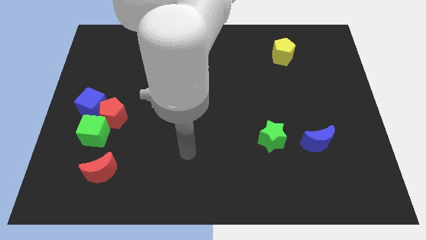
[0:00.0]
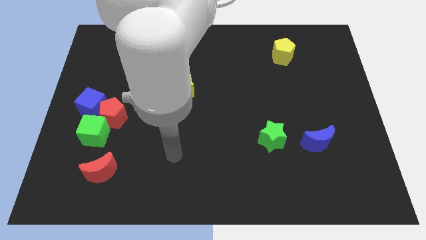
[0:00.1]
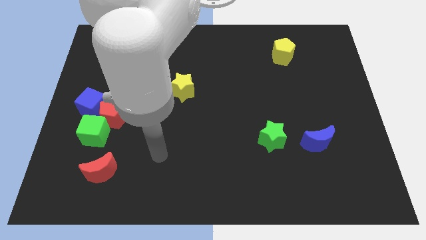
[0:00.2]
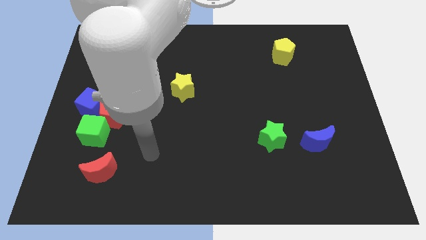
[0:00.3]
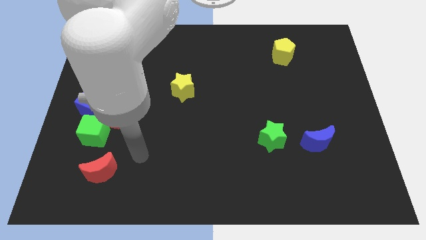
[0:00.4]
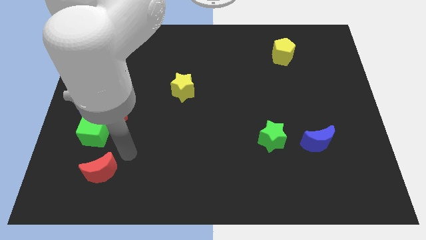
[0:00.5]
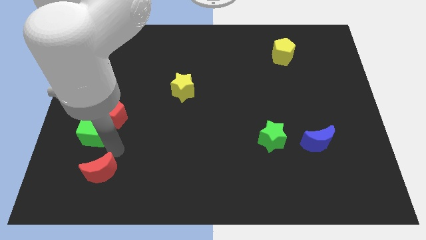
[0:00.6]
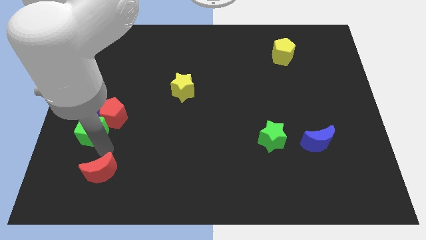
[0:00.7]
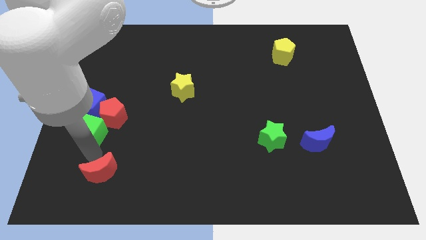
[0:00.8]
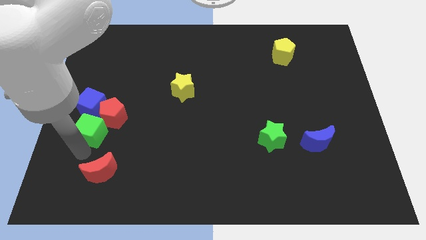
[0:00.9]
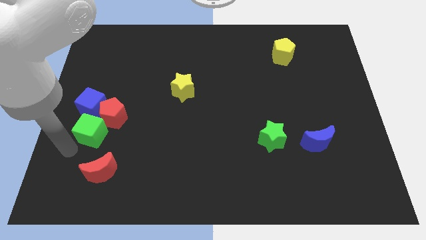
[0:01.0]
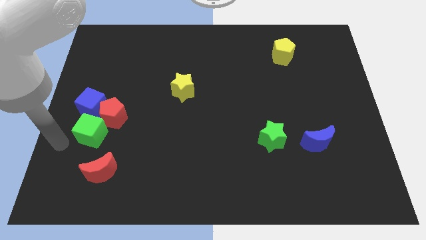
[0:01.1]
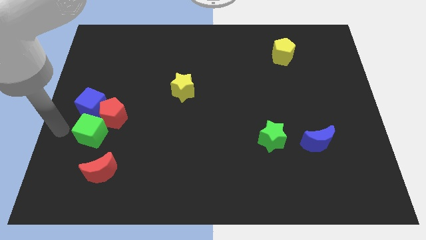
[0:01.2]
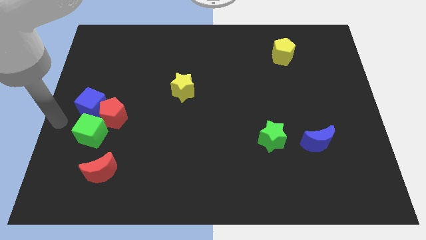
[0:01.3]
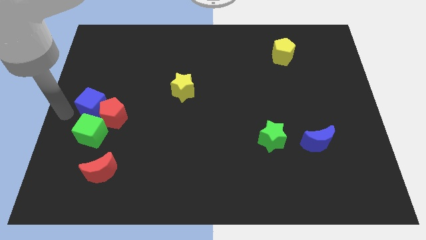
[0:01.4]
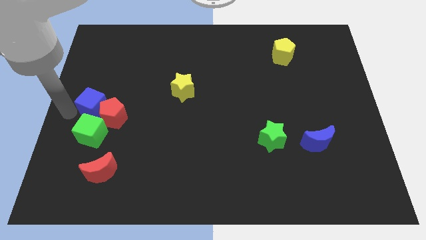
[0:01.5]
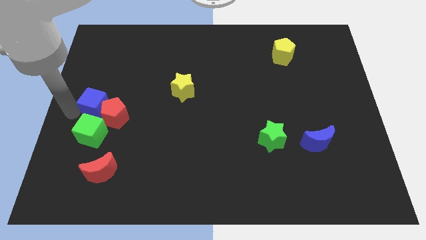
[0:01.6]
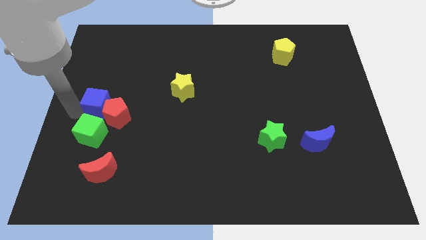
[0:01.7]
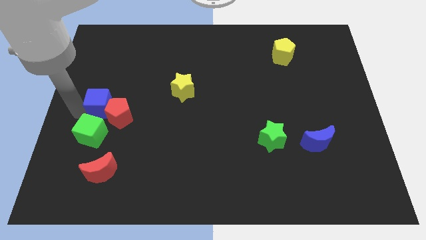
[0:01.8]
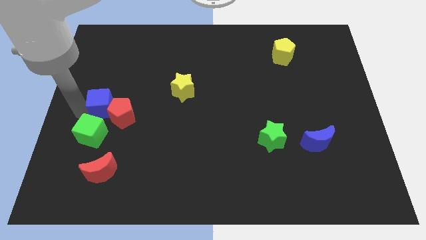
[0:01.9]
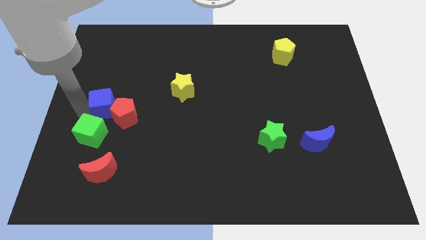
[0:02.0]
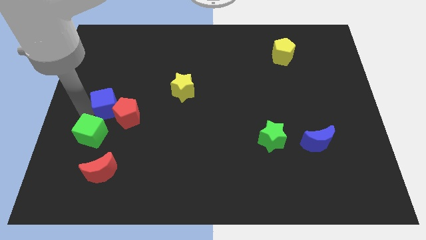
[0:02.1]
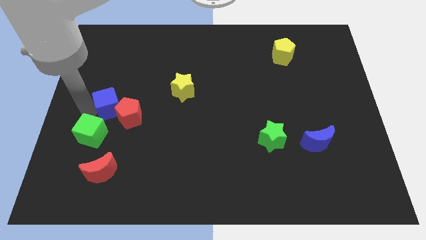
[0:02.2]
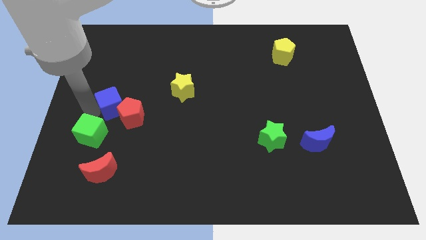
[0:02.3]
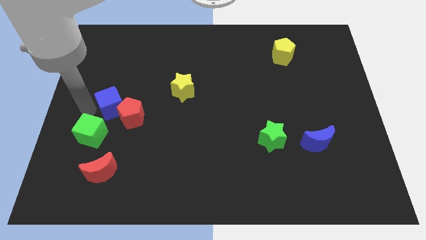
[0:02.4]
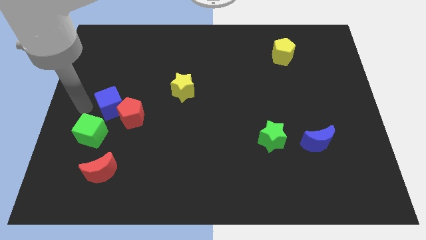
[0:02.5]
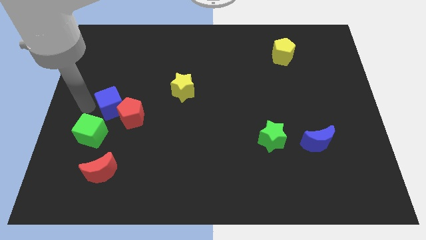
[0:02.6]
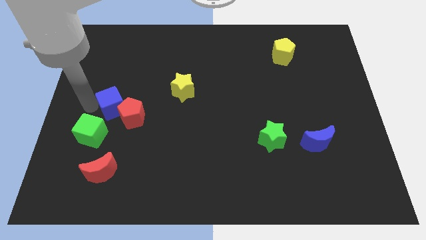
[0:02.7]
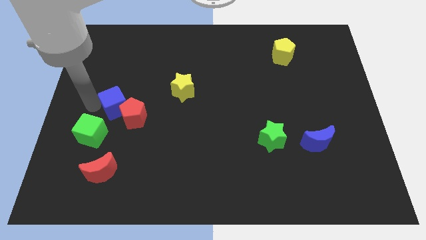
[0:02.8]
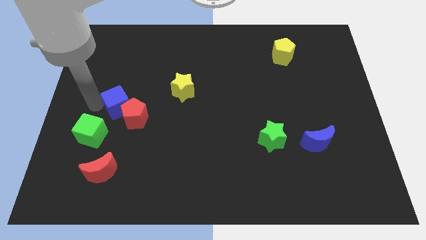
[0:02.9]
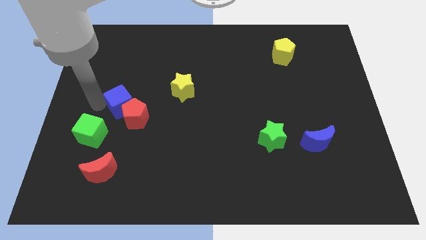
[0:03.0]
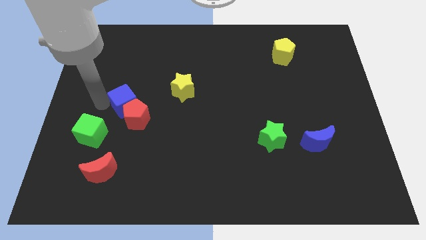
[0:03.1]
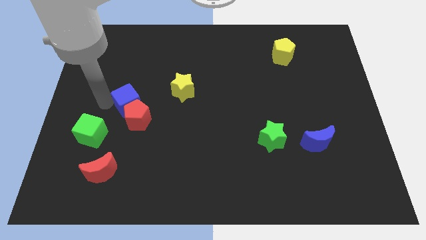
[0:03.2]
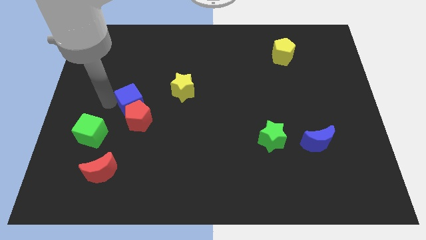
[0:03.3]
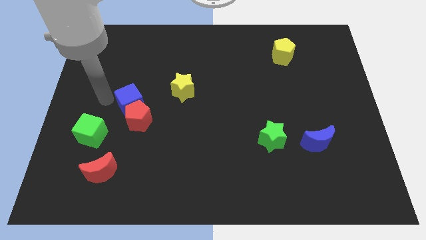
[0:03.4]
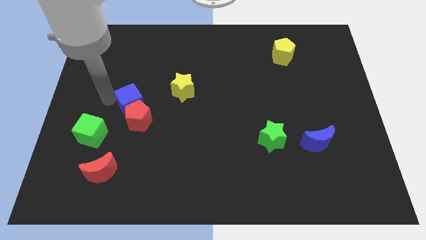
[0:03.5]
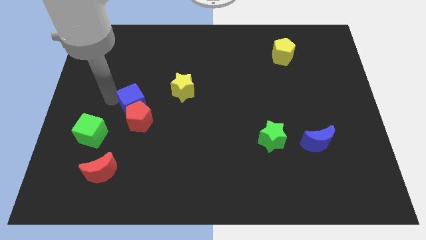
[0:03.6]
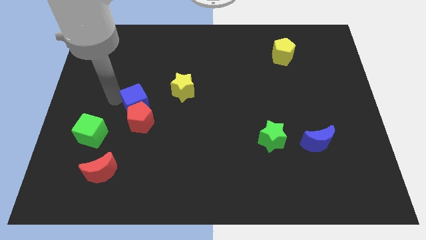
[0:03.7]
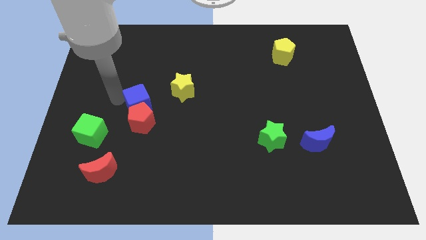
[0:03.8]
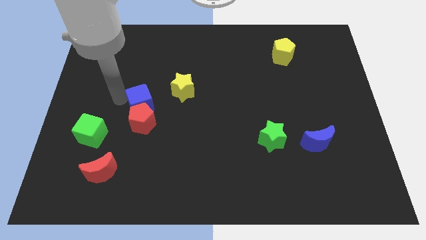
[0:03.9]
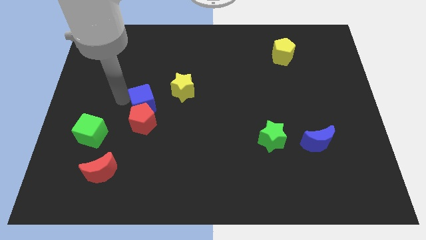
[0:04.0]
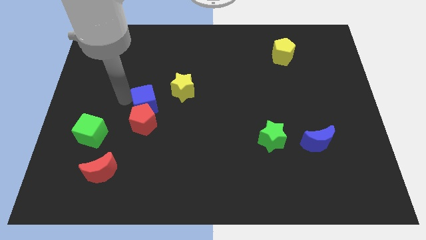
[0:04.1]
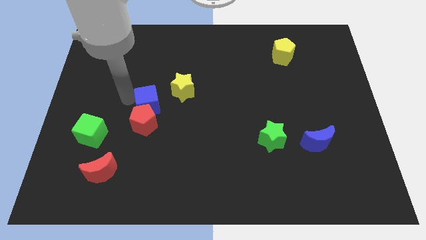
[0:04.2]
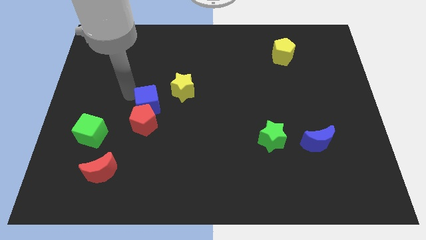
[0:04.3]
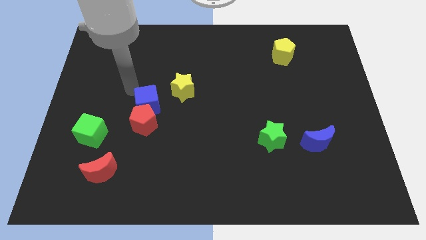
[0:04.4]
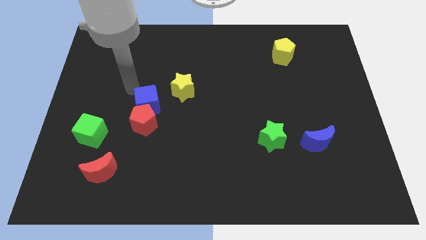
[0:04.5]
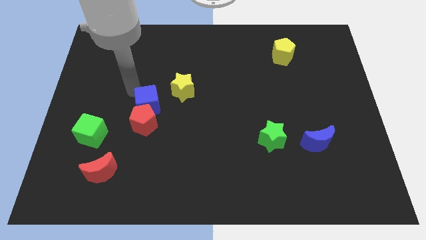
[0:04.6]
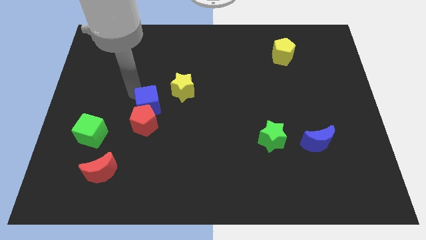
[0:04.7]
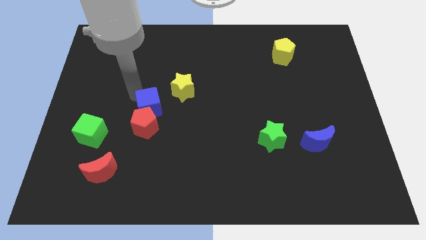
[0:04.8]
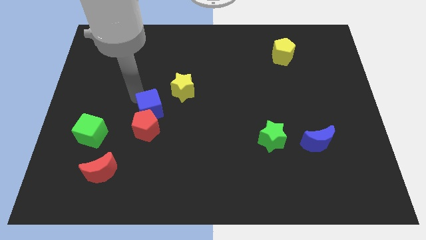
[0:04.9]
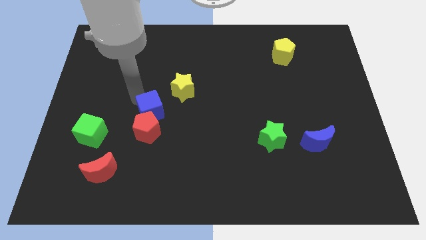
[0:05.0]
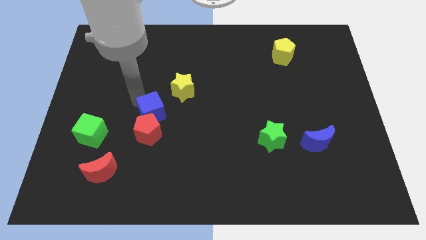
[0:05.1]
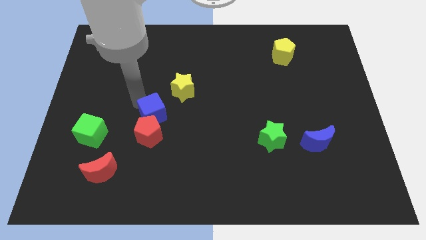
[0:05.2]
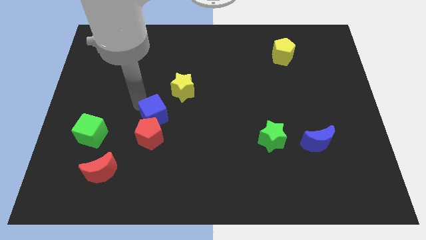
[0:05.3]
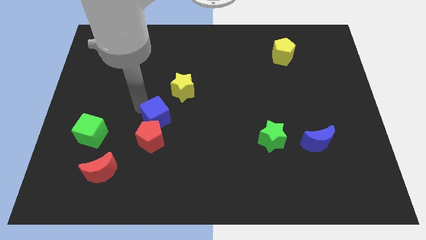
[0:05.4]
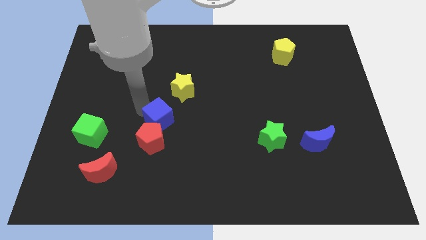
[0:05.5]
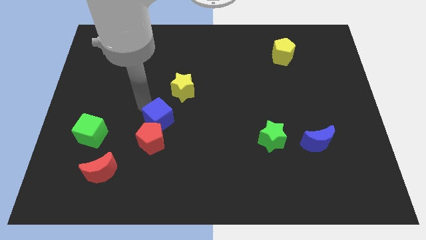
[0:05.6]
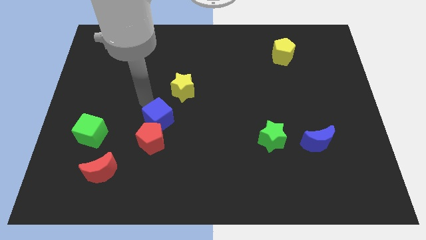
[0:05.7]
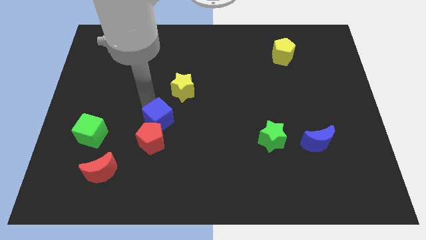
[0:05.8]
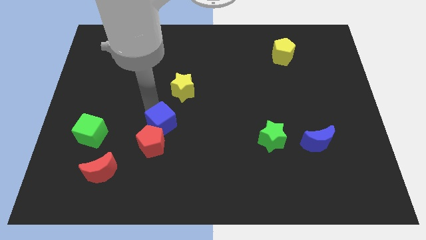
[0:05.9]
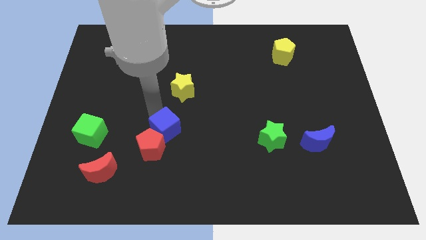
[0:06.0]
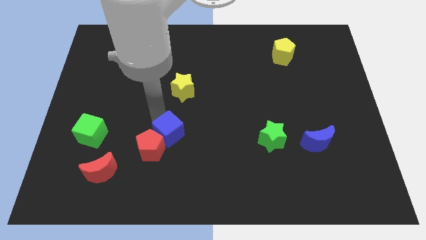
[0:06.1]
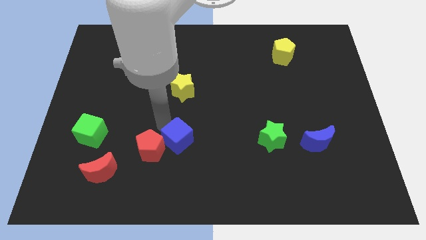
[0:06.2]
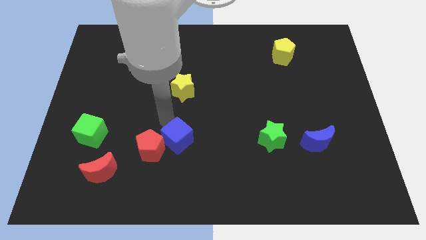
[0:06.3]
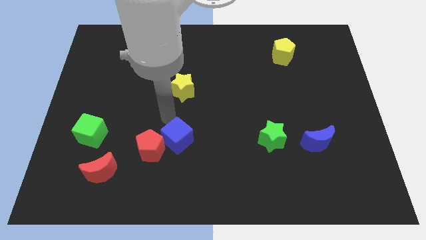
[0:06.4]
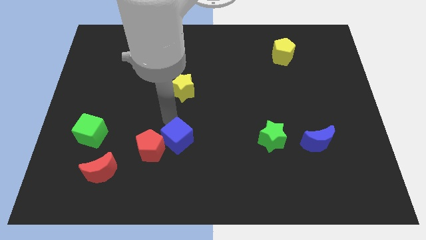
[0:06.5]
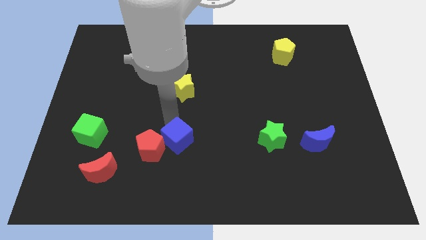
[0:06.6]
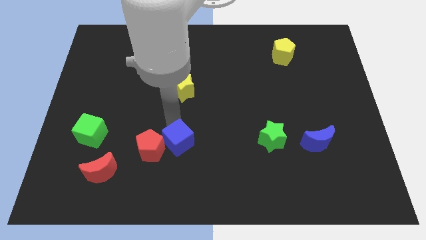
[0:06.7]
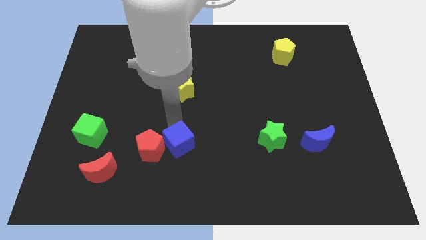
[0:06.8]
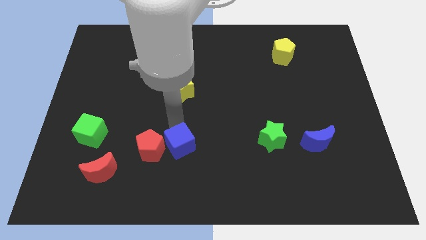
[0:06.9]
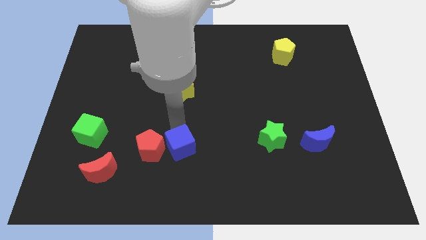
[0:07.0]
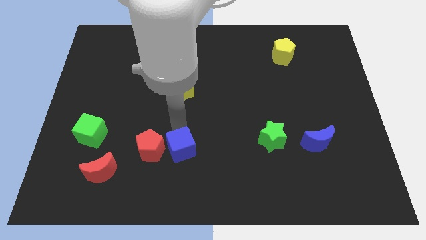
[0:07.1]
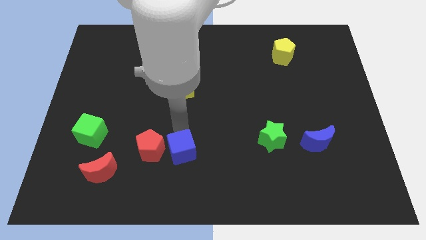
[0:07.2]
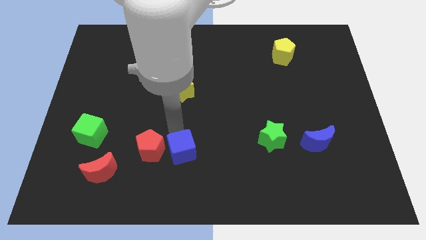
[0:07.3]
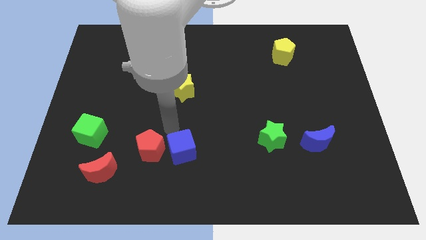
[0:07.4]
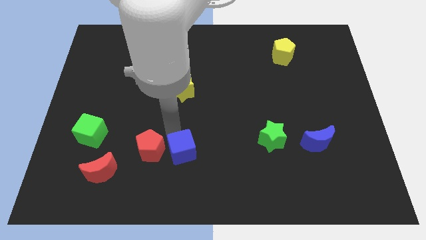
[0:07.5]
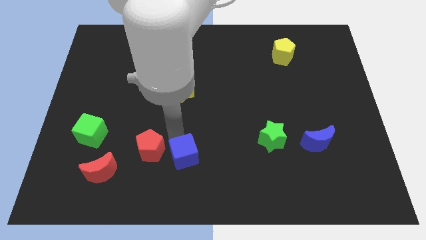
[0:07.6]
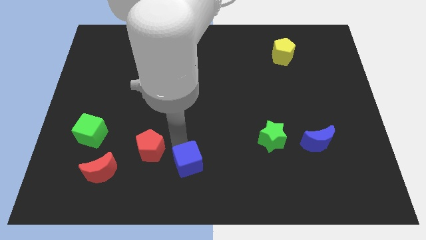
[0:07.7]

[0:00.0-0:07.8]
slide the blue cube to the bottom side
